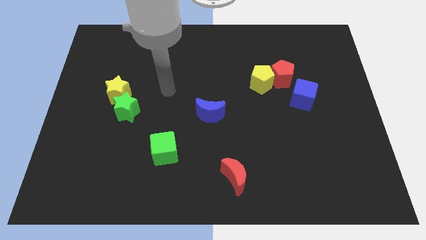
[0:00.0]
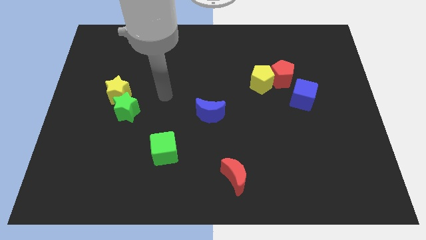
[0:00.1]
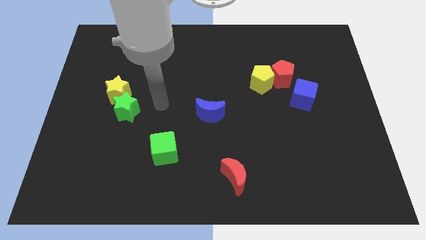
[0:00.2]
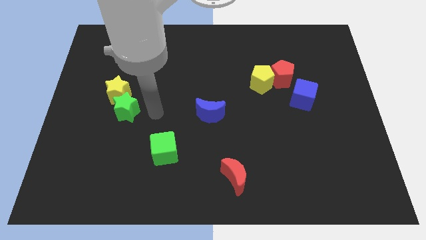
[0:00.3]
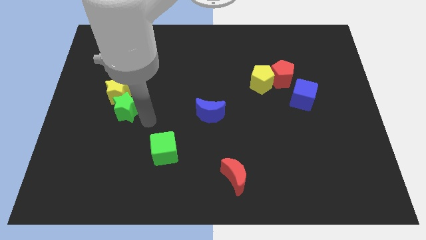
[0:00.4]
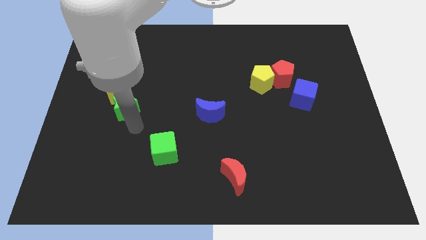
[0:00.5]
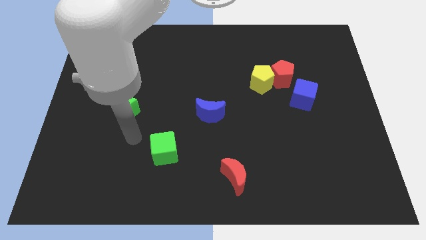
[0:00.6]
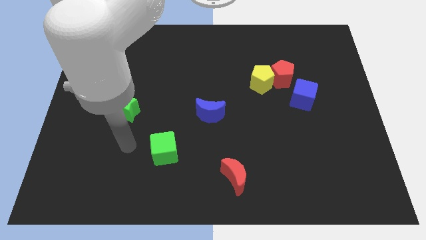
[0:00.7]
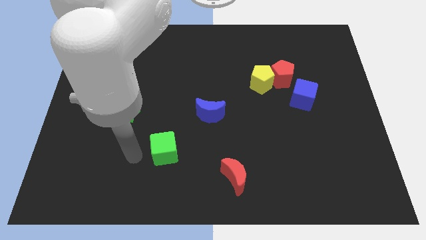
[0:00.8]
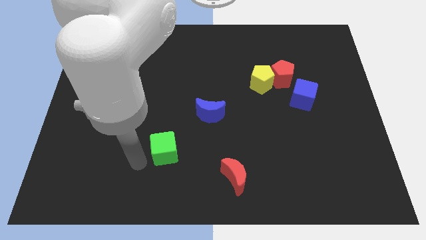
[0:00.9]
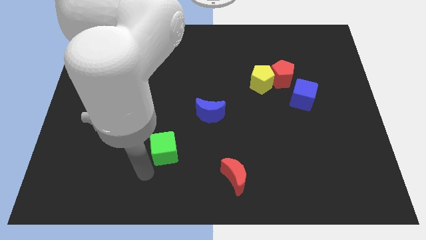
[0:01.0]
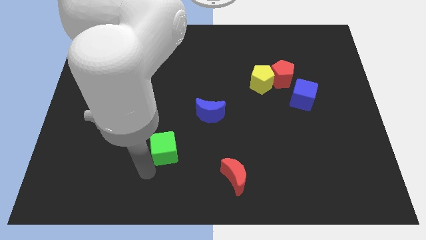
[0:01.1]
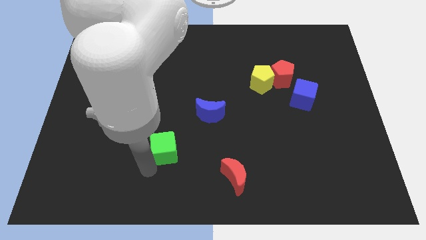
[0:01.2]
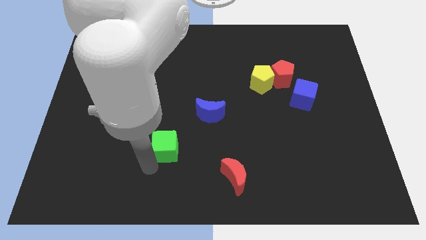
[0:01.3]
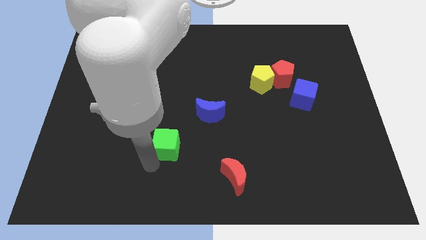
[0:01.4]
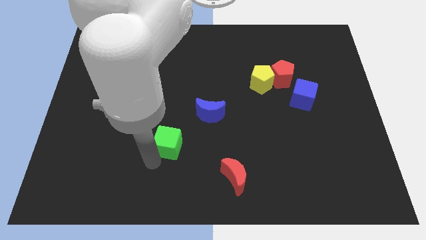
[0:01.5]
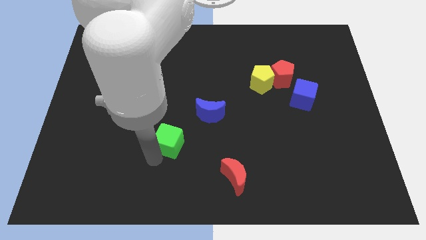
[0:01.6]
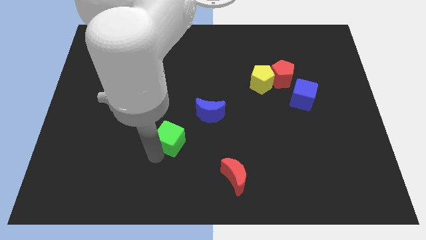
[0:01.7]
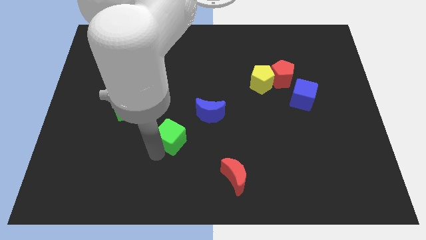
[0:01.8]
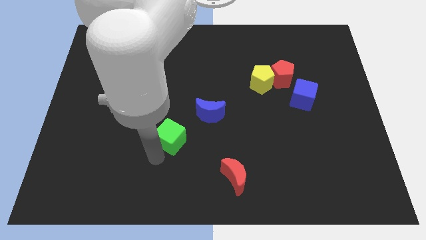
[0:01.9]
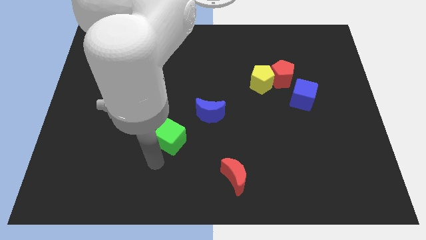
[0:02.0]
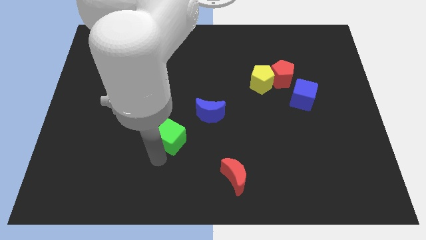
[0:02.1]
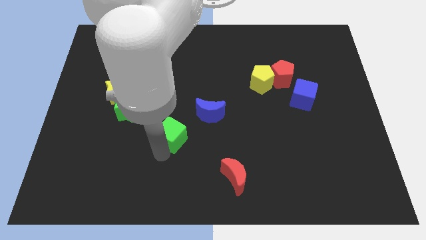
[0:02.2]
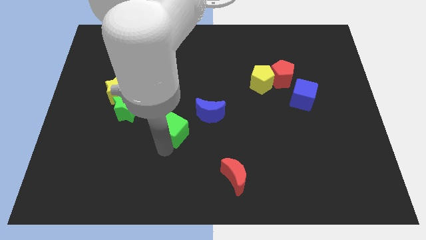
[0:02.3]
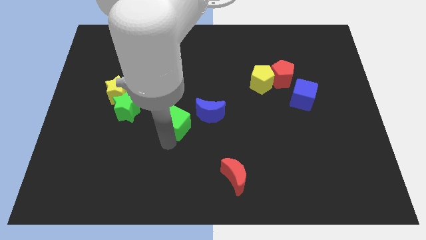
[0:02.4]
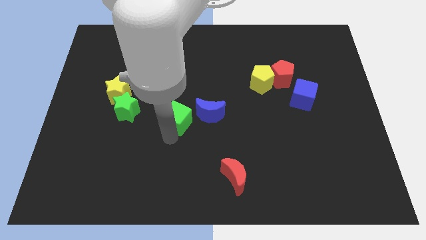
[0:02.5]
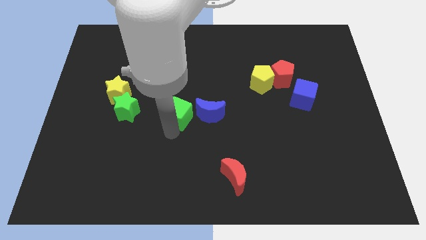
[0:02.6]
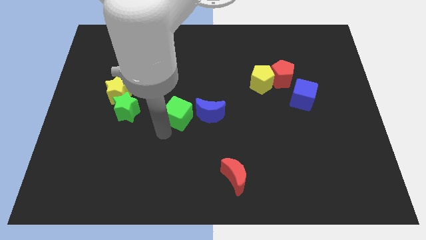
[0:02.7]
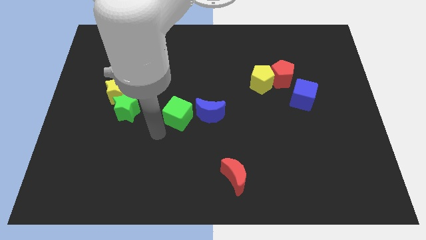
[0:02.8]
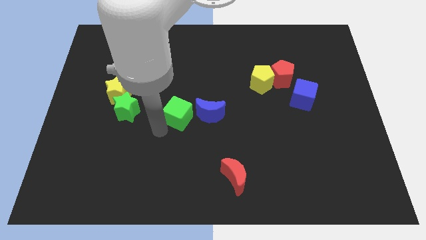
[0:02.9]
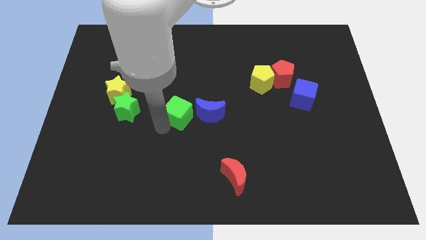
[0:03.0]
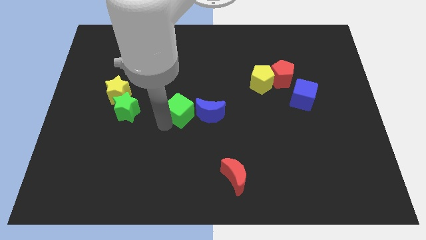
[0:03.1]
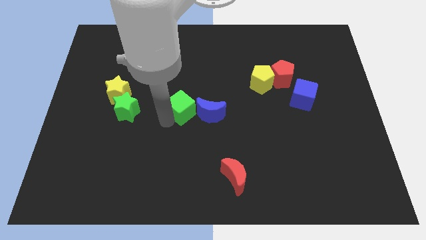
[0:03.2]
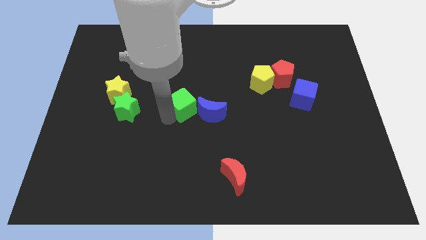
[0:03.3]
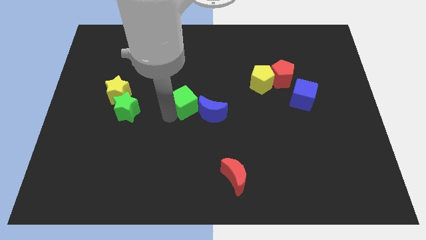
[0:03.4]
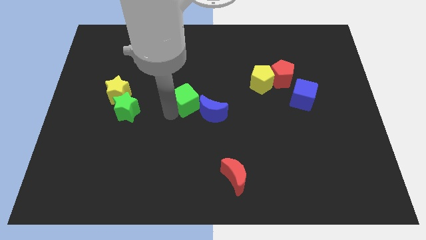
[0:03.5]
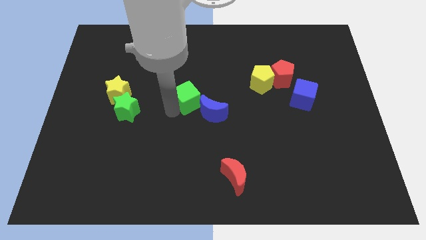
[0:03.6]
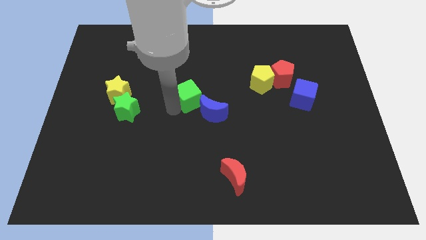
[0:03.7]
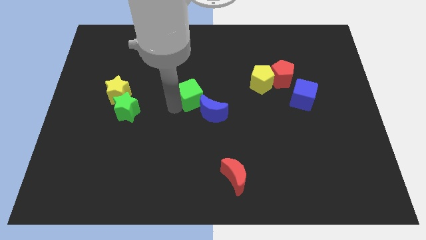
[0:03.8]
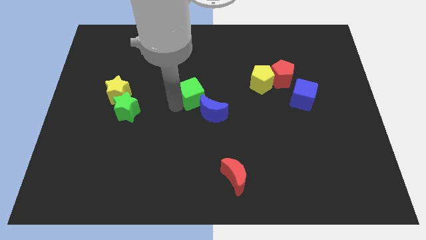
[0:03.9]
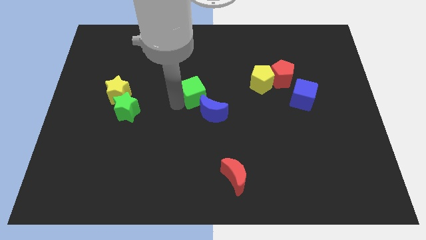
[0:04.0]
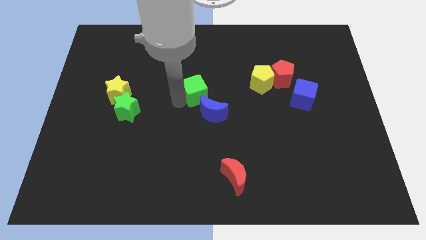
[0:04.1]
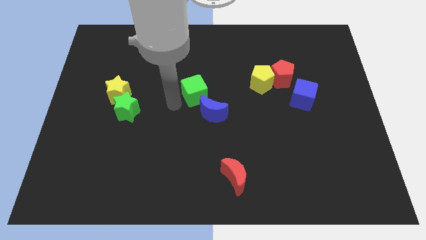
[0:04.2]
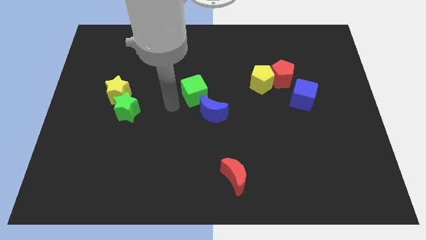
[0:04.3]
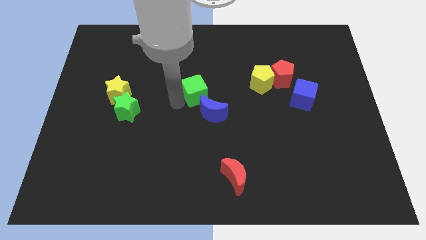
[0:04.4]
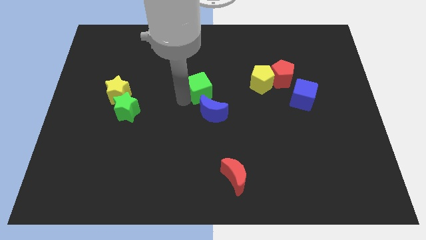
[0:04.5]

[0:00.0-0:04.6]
move the green cube to the left side of the yellow pentagon

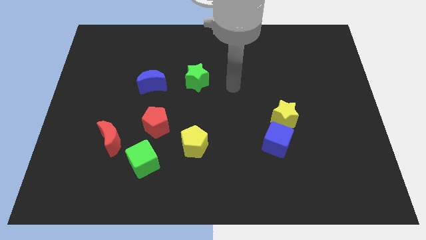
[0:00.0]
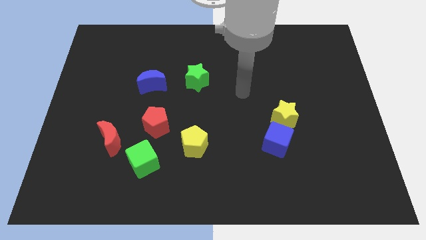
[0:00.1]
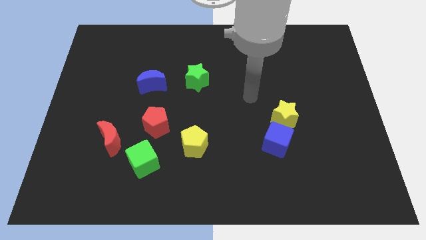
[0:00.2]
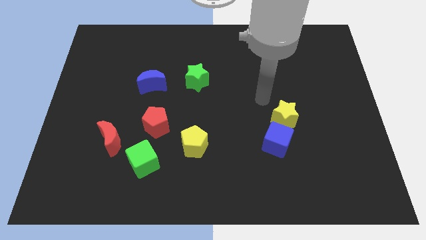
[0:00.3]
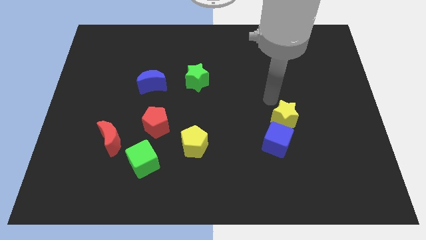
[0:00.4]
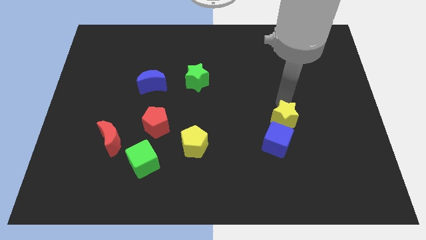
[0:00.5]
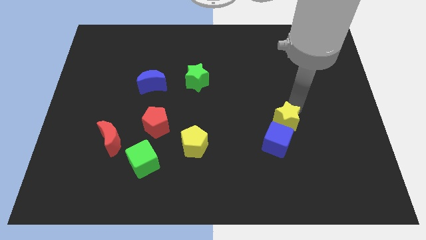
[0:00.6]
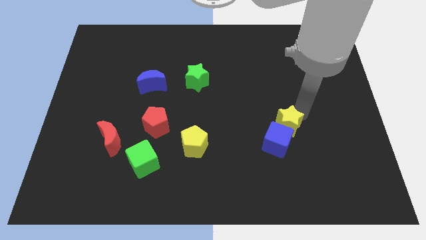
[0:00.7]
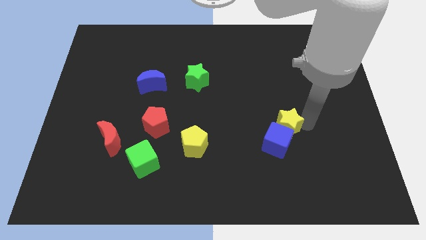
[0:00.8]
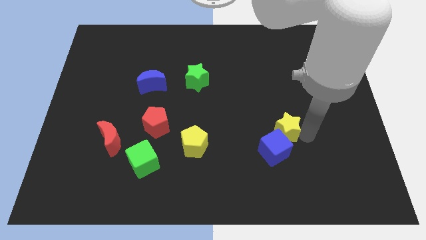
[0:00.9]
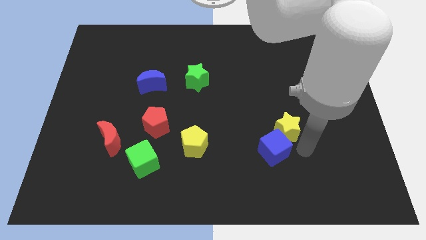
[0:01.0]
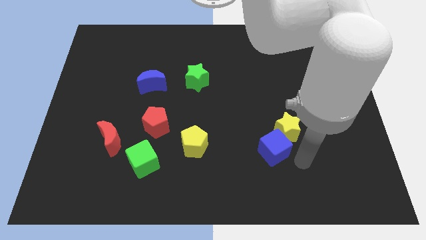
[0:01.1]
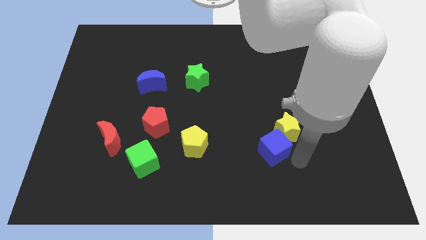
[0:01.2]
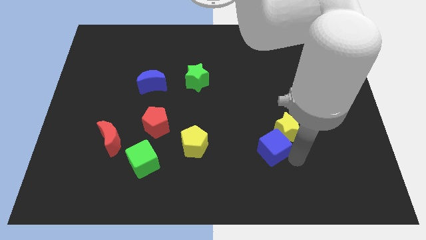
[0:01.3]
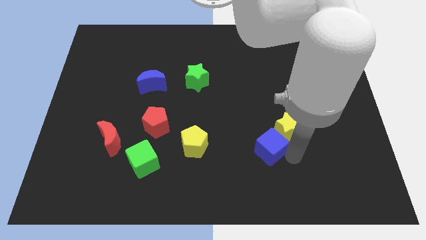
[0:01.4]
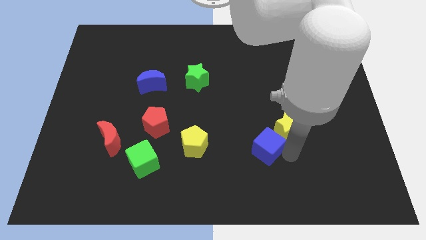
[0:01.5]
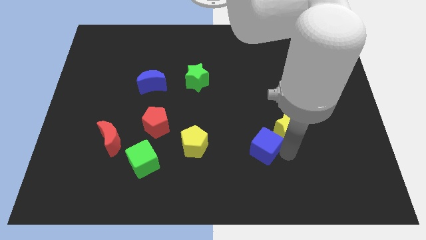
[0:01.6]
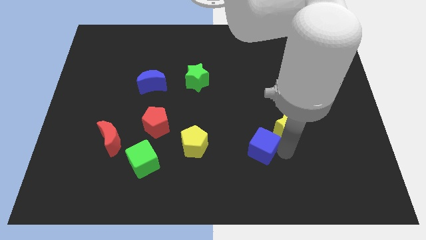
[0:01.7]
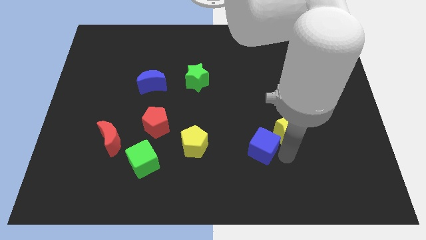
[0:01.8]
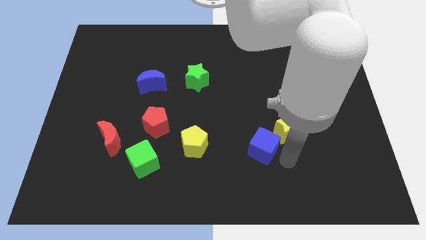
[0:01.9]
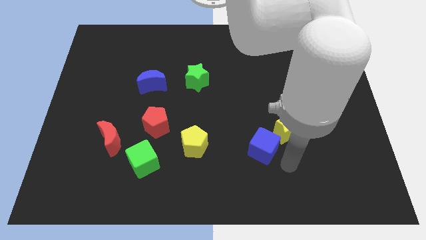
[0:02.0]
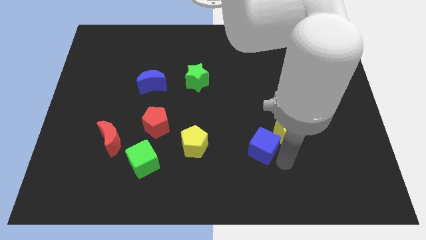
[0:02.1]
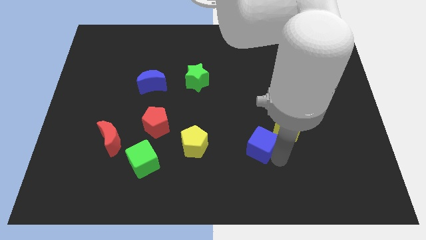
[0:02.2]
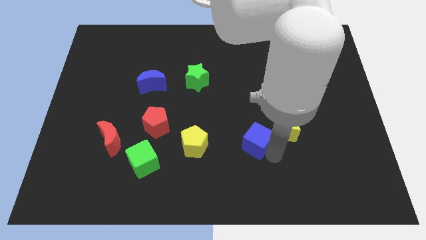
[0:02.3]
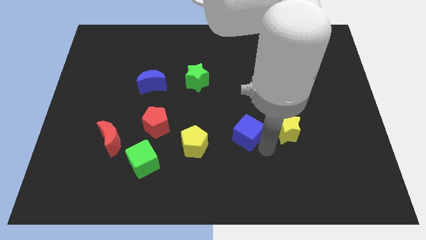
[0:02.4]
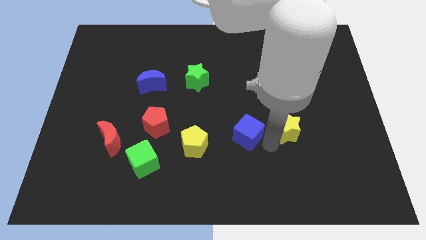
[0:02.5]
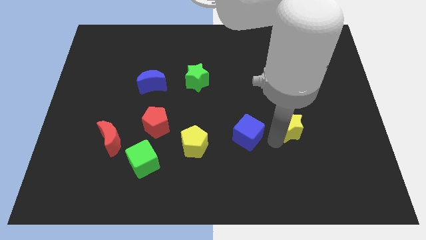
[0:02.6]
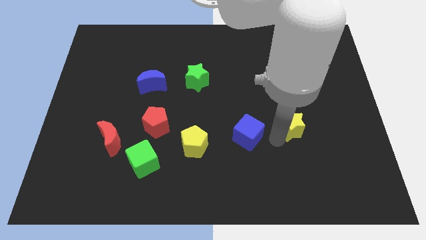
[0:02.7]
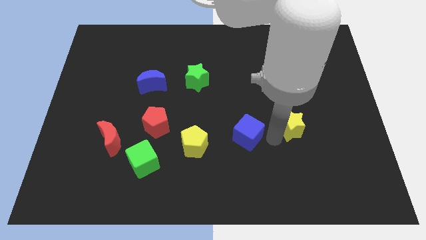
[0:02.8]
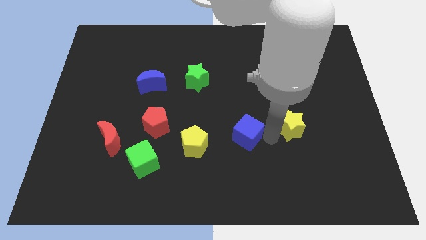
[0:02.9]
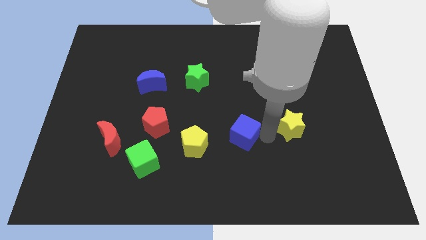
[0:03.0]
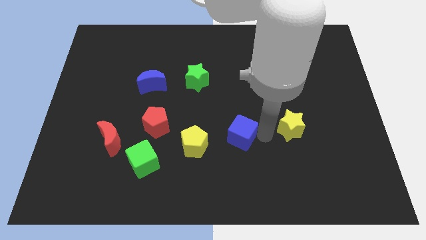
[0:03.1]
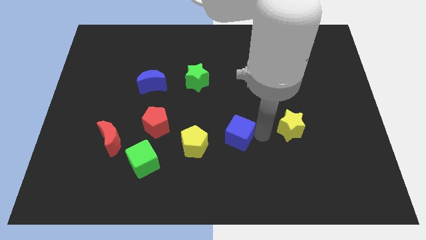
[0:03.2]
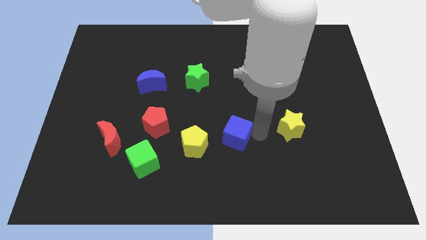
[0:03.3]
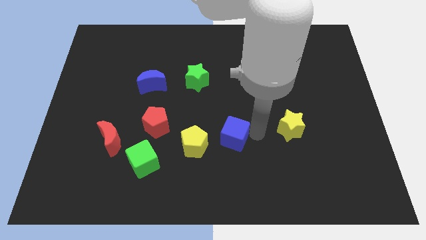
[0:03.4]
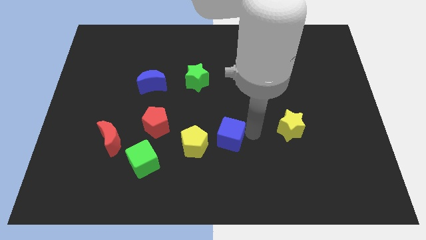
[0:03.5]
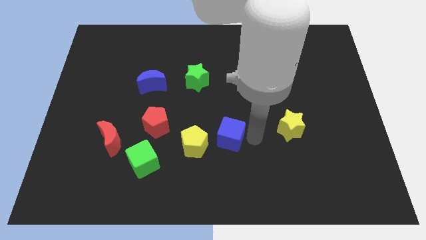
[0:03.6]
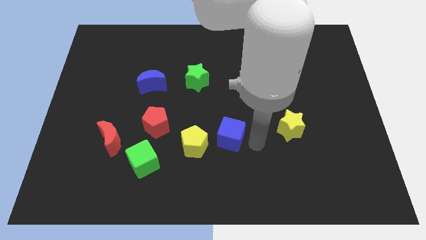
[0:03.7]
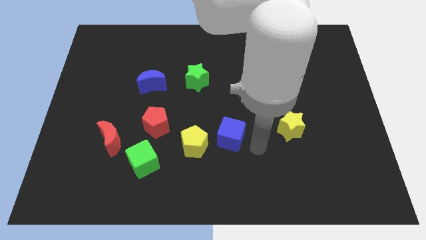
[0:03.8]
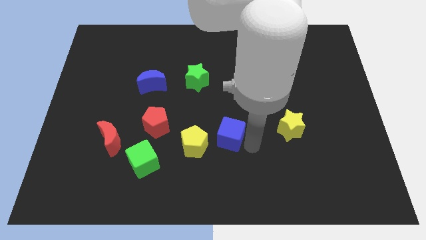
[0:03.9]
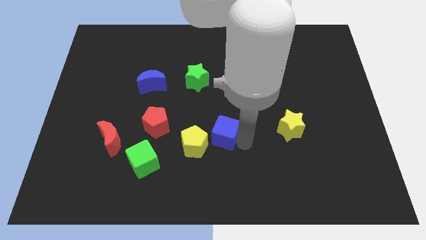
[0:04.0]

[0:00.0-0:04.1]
push the blue cube to the right of the red pentagon
